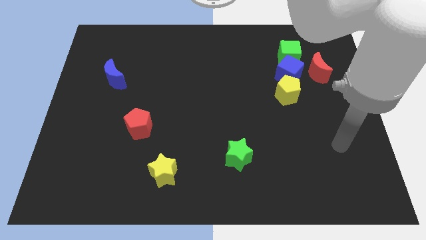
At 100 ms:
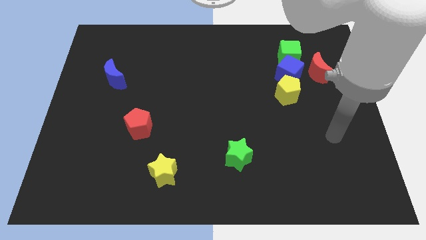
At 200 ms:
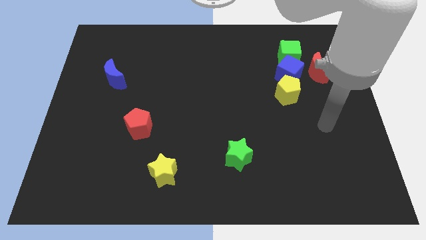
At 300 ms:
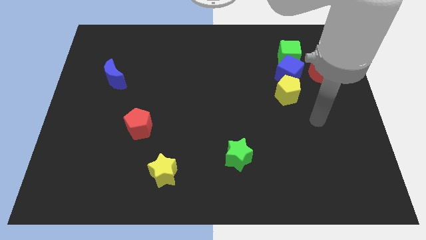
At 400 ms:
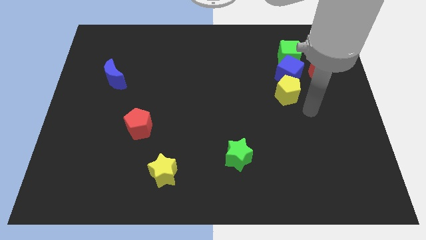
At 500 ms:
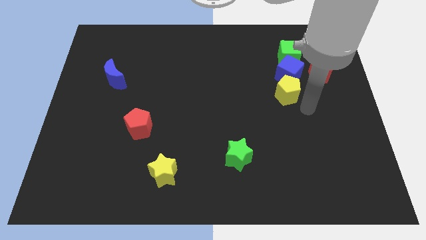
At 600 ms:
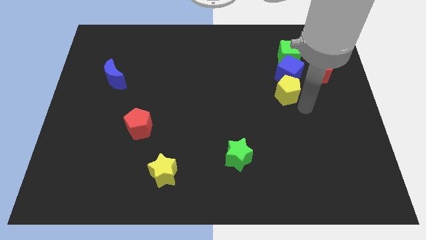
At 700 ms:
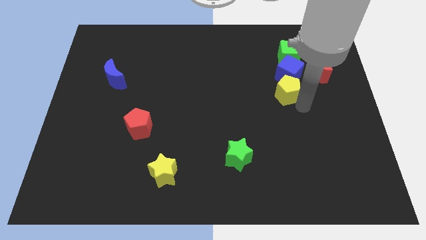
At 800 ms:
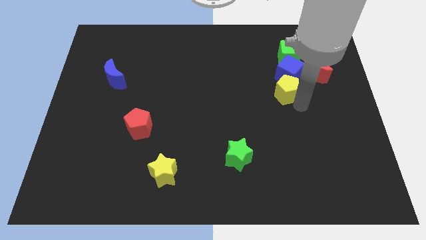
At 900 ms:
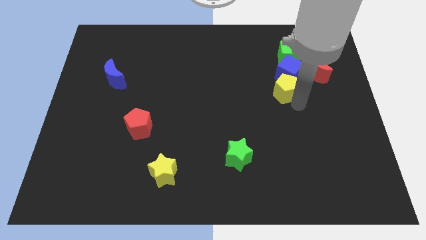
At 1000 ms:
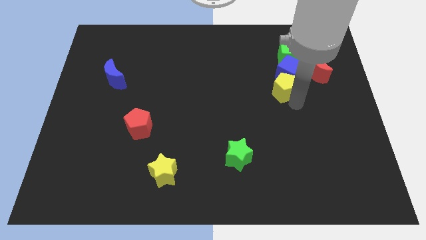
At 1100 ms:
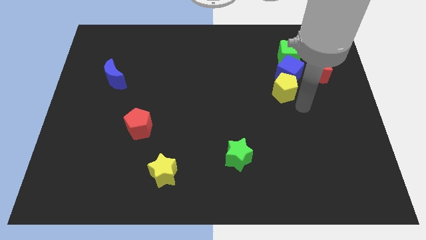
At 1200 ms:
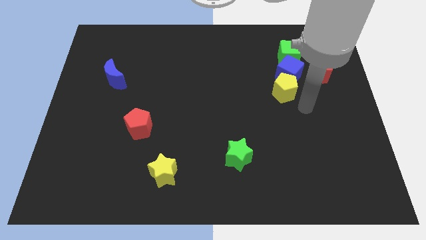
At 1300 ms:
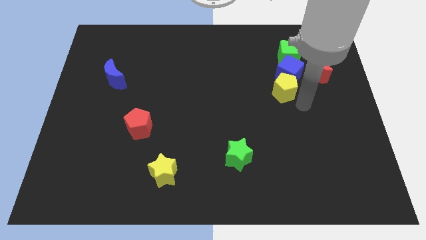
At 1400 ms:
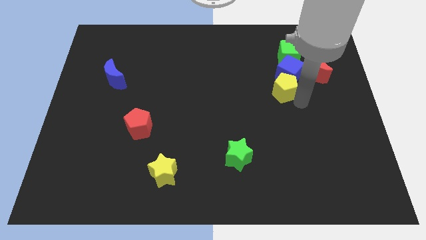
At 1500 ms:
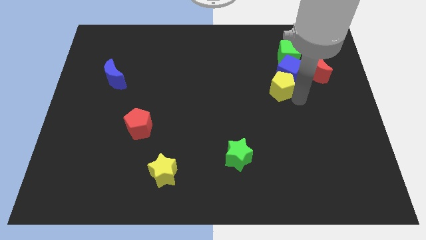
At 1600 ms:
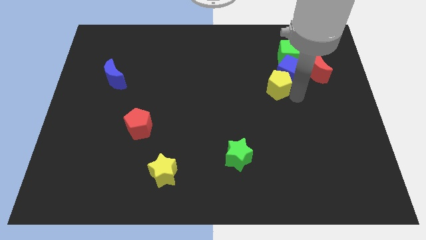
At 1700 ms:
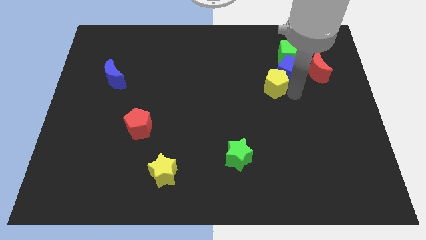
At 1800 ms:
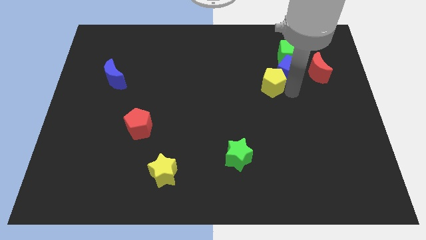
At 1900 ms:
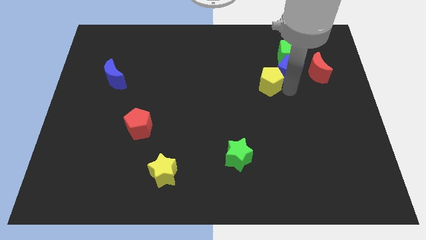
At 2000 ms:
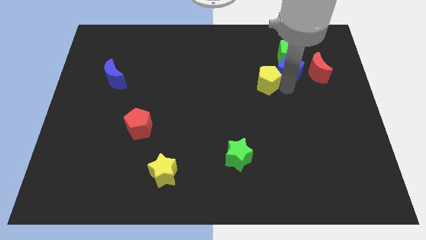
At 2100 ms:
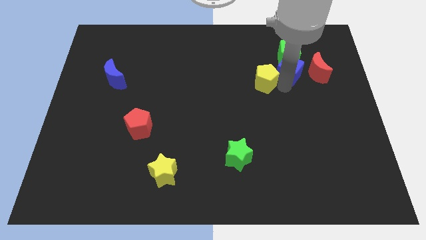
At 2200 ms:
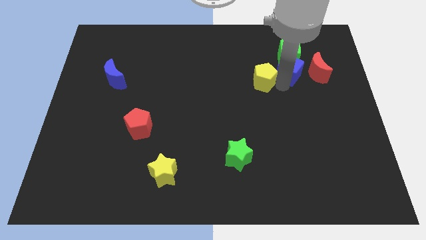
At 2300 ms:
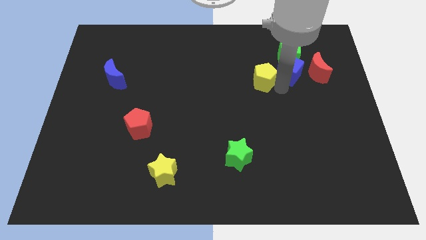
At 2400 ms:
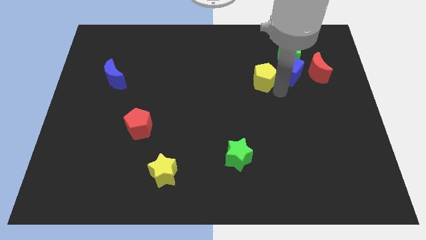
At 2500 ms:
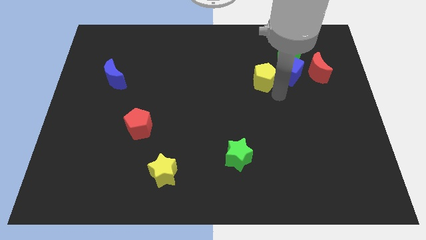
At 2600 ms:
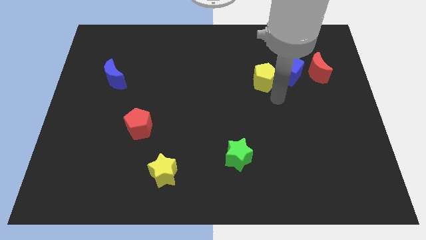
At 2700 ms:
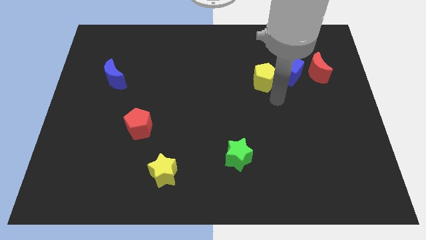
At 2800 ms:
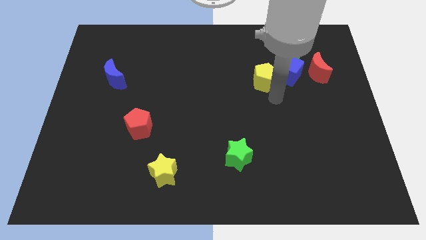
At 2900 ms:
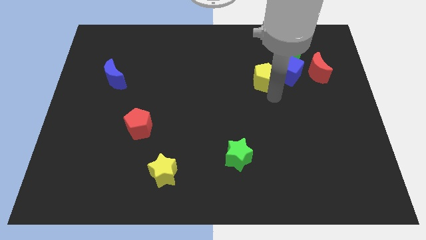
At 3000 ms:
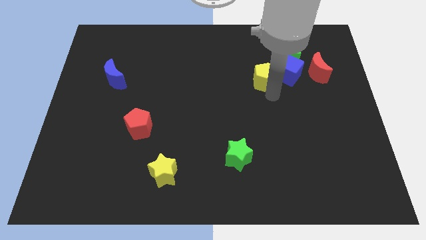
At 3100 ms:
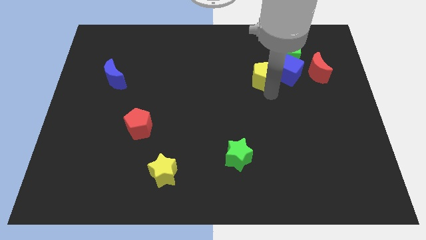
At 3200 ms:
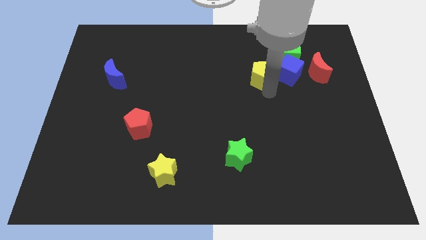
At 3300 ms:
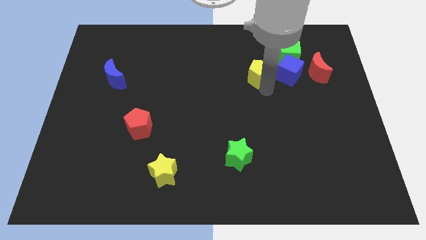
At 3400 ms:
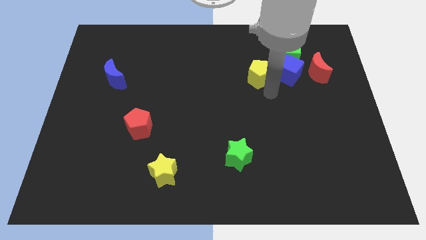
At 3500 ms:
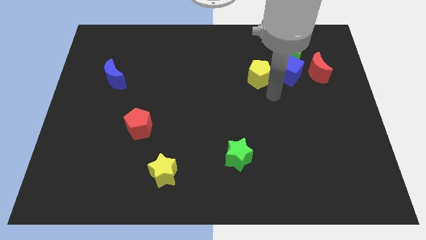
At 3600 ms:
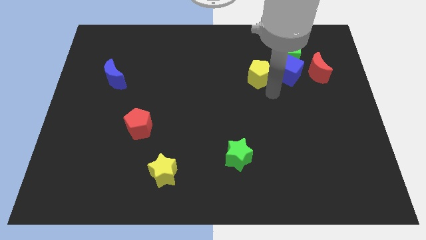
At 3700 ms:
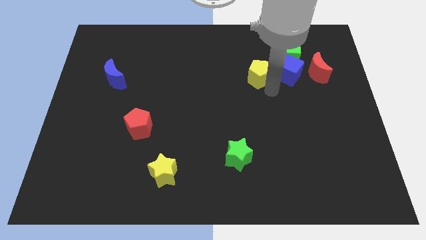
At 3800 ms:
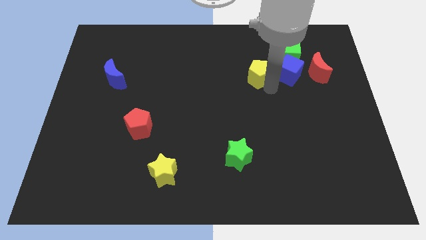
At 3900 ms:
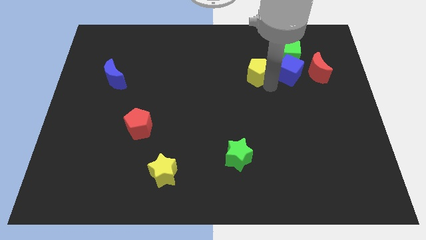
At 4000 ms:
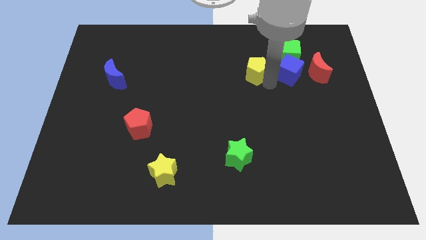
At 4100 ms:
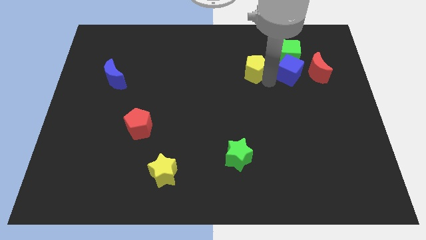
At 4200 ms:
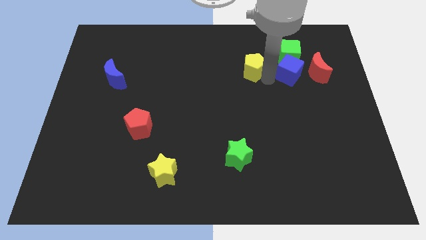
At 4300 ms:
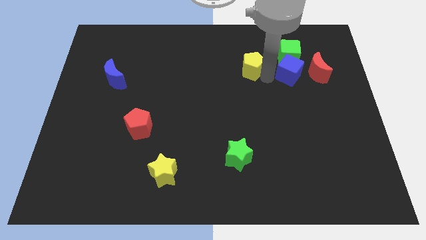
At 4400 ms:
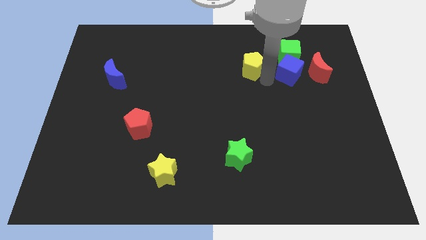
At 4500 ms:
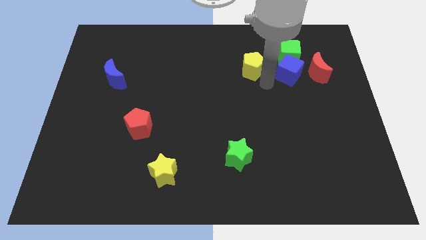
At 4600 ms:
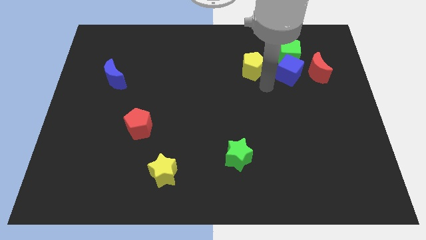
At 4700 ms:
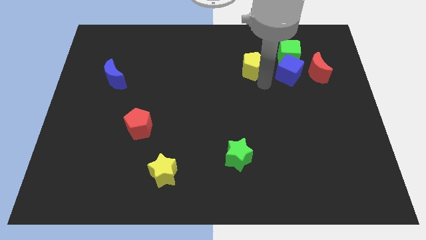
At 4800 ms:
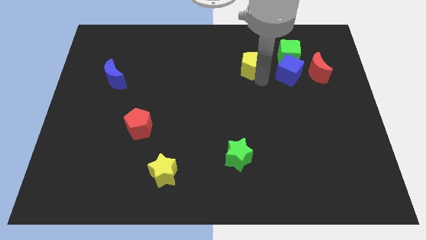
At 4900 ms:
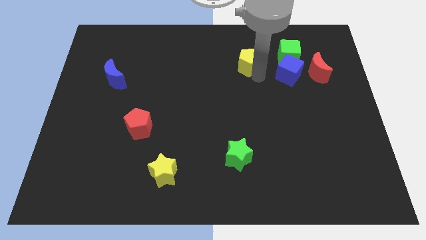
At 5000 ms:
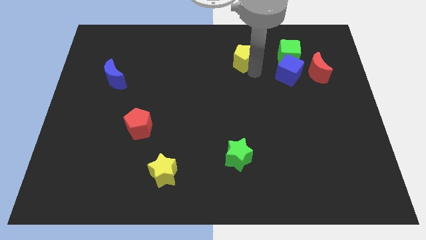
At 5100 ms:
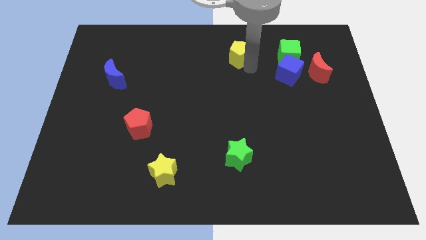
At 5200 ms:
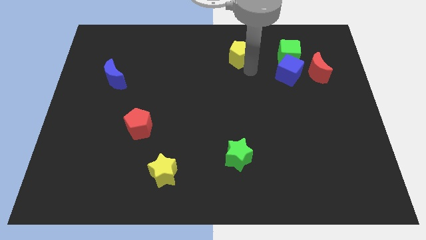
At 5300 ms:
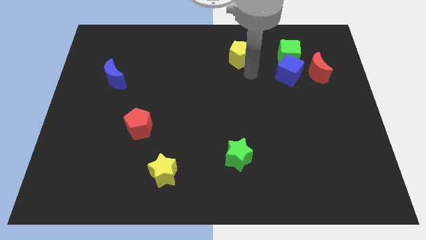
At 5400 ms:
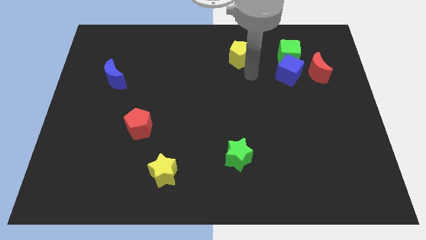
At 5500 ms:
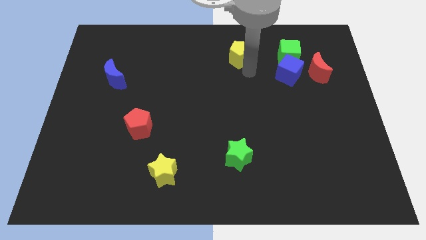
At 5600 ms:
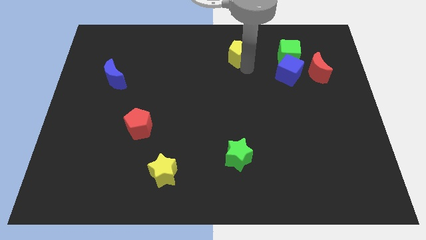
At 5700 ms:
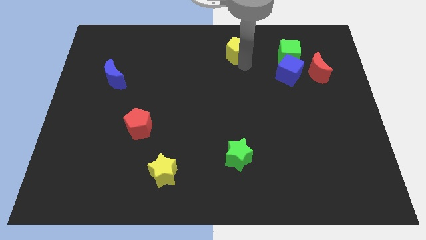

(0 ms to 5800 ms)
push the yellow pentagon to the towards your base
